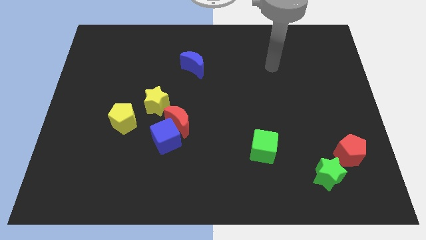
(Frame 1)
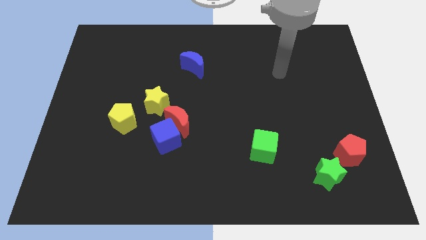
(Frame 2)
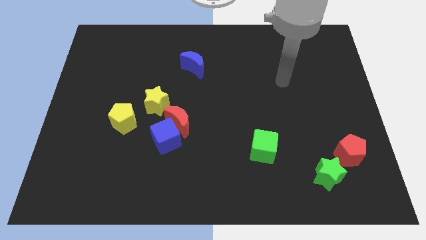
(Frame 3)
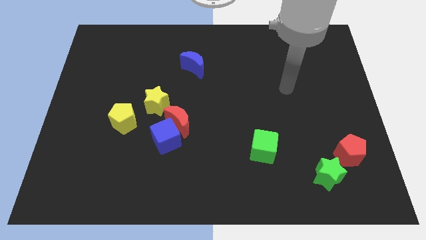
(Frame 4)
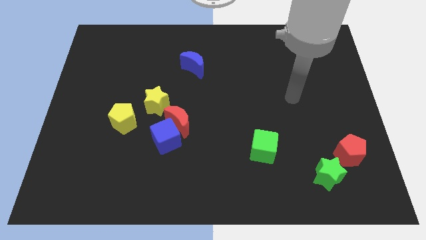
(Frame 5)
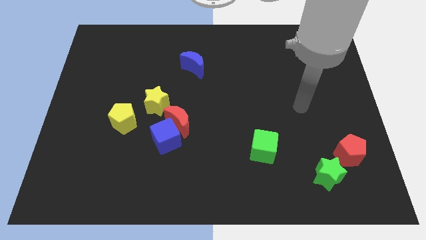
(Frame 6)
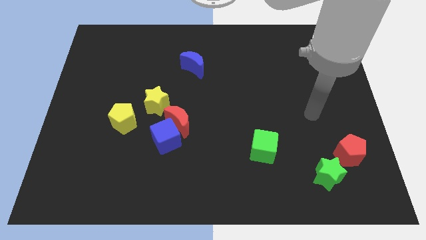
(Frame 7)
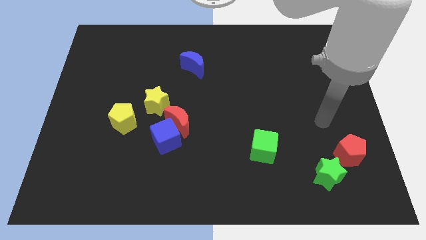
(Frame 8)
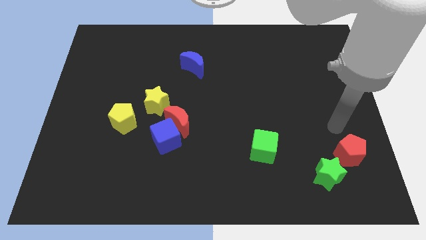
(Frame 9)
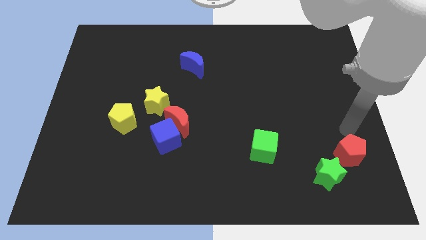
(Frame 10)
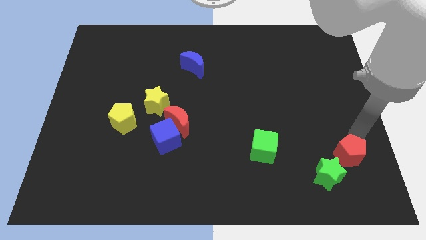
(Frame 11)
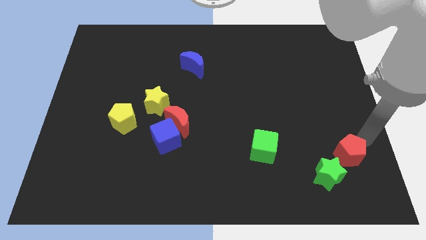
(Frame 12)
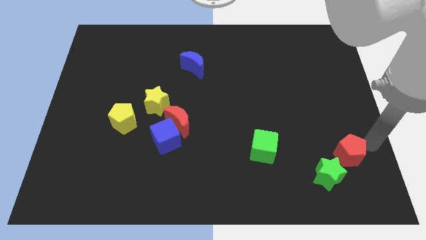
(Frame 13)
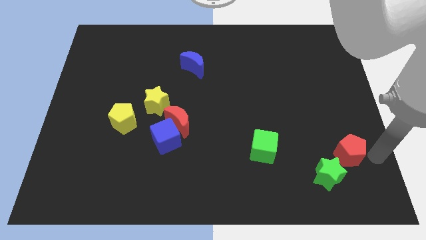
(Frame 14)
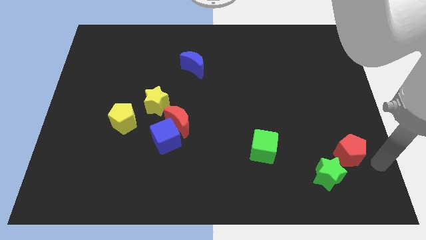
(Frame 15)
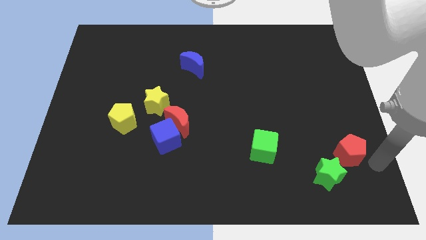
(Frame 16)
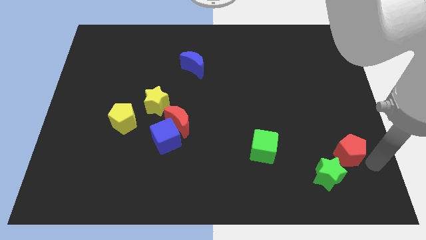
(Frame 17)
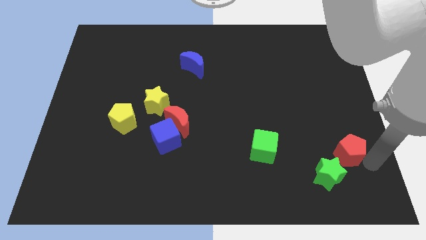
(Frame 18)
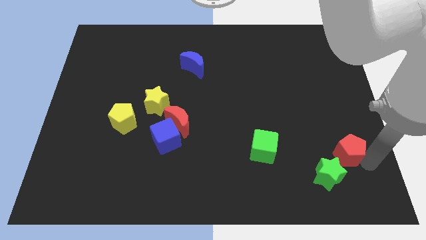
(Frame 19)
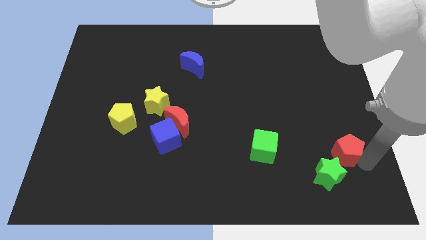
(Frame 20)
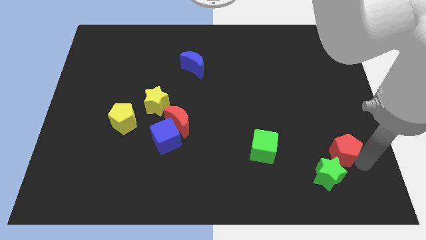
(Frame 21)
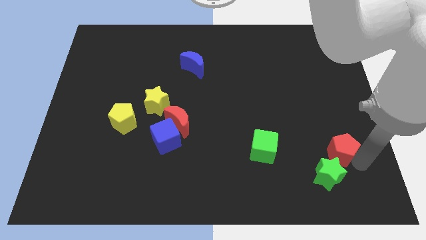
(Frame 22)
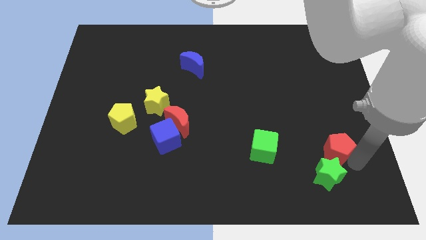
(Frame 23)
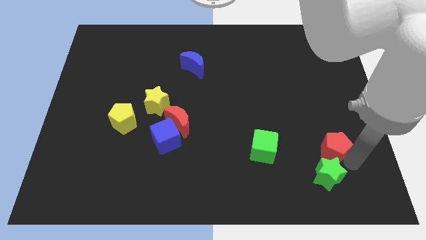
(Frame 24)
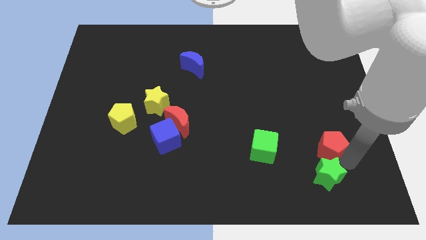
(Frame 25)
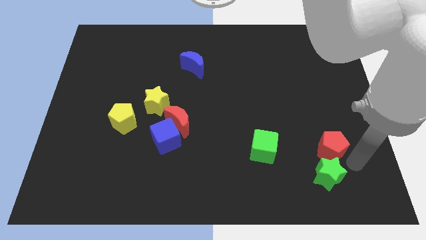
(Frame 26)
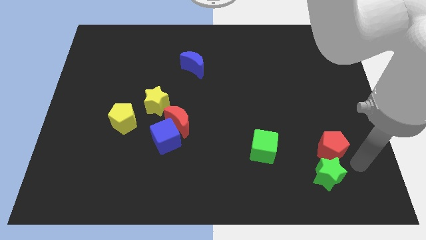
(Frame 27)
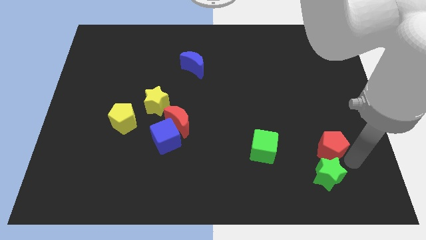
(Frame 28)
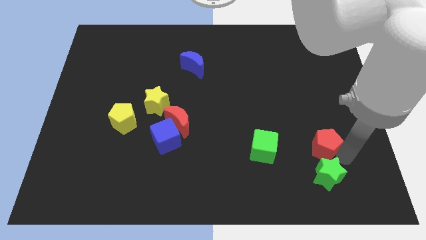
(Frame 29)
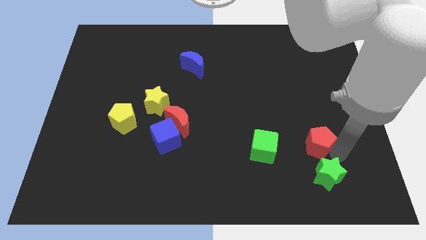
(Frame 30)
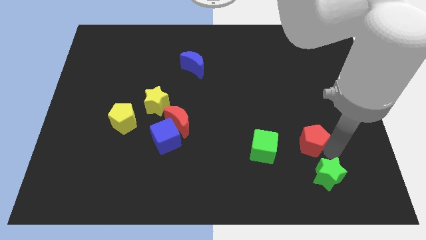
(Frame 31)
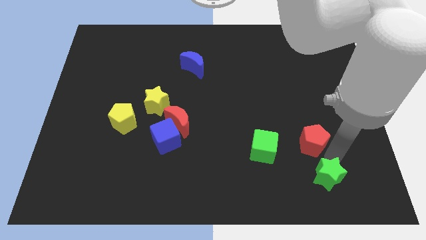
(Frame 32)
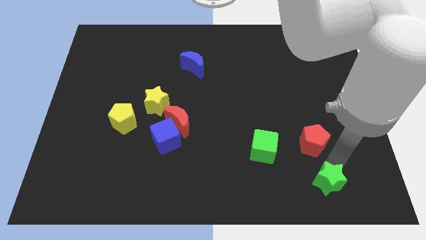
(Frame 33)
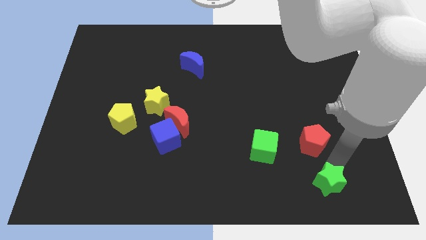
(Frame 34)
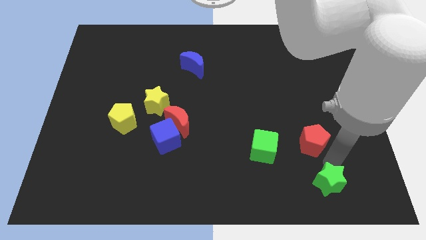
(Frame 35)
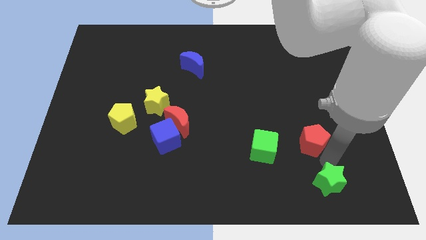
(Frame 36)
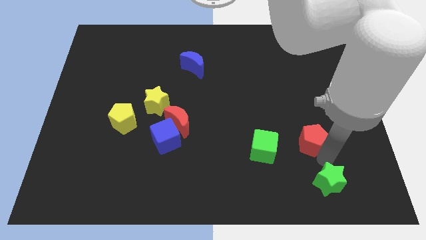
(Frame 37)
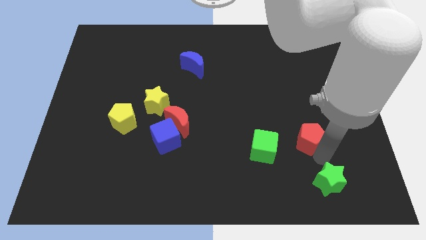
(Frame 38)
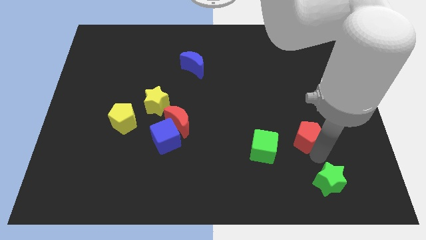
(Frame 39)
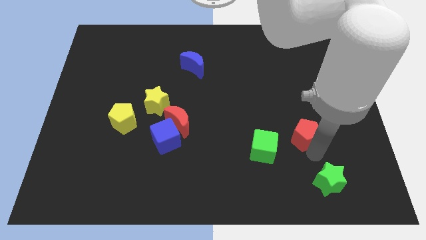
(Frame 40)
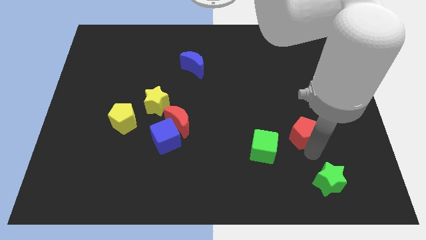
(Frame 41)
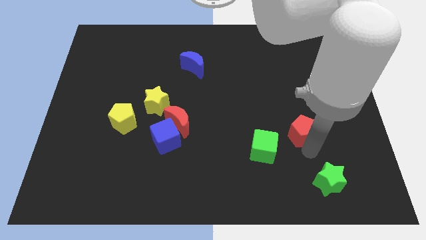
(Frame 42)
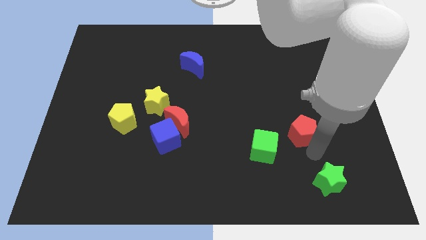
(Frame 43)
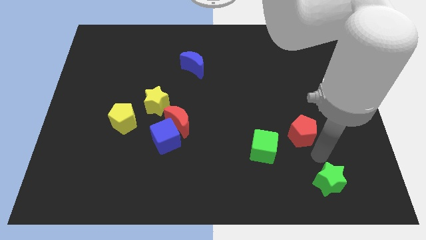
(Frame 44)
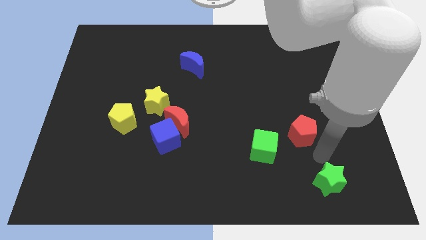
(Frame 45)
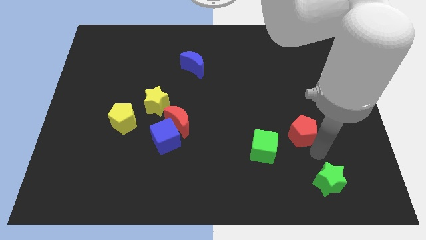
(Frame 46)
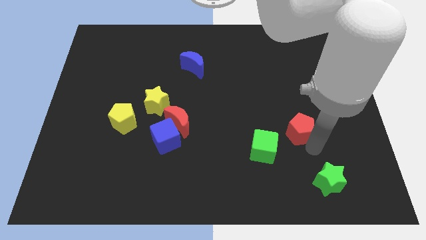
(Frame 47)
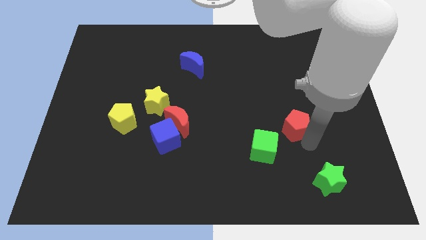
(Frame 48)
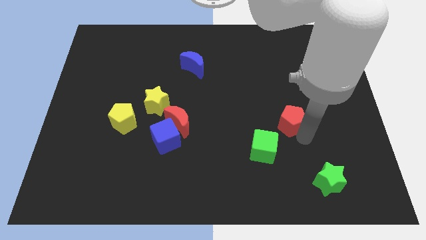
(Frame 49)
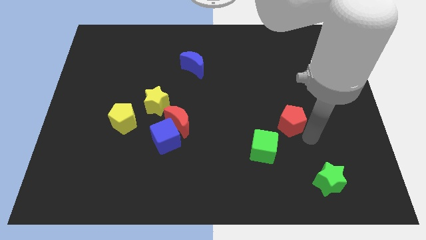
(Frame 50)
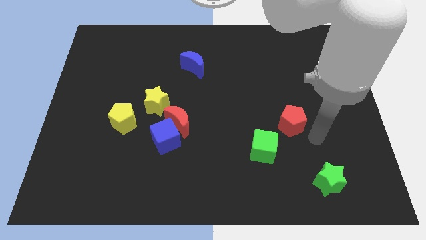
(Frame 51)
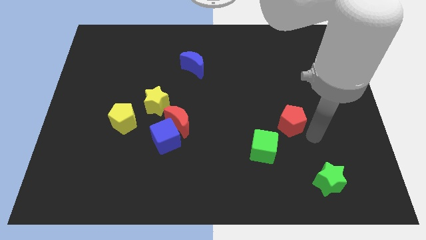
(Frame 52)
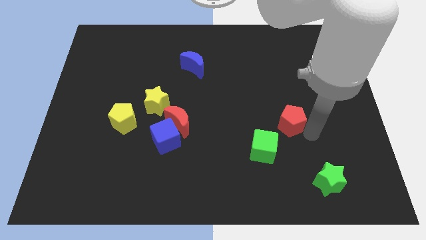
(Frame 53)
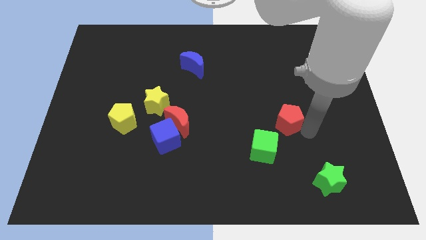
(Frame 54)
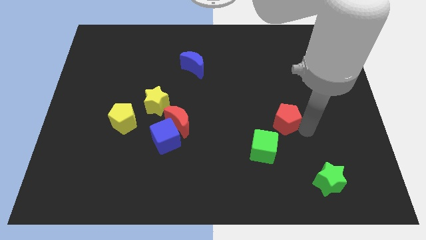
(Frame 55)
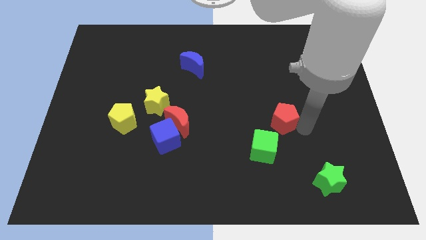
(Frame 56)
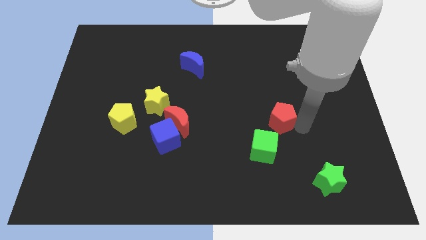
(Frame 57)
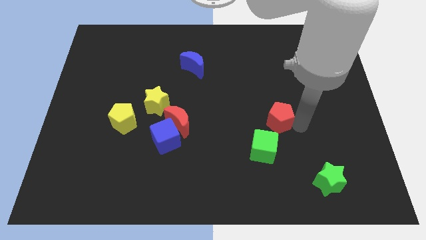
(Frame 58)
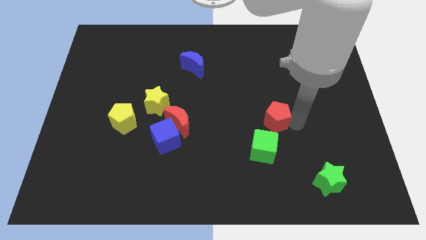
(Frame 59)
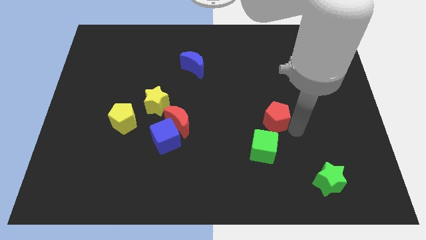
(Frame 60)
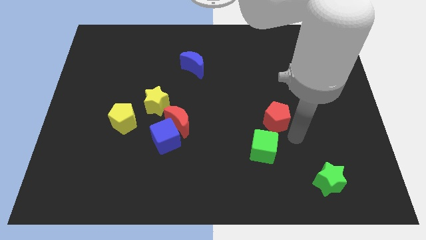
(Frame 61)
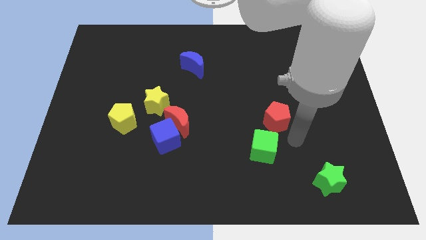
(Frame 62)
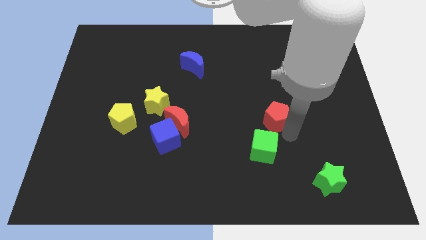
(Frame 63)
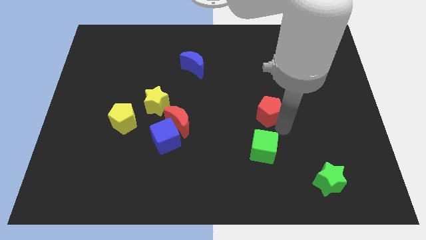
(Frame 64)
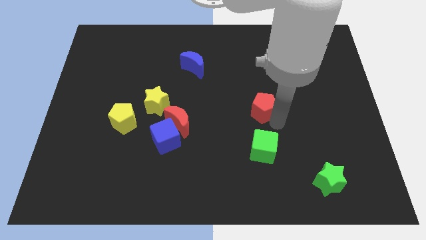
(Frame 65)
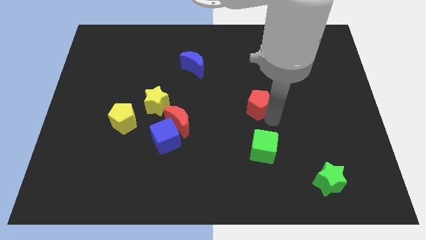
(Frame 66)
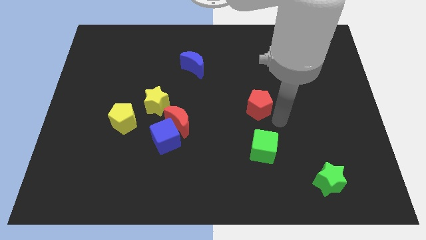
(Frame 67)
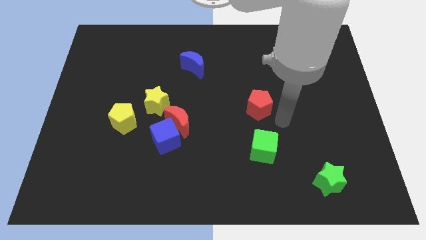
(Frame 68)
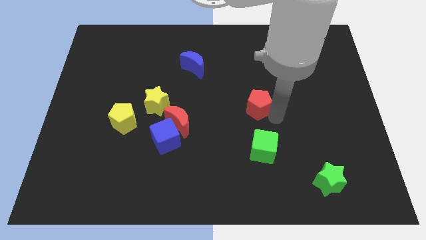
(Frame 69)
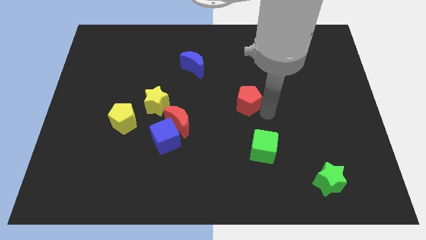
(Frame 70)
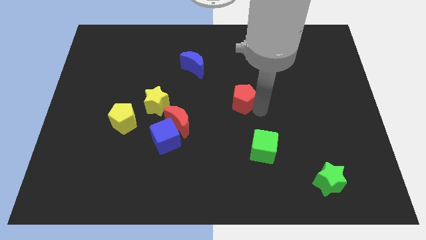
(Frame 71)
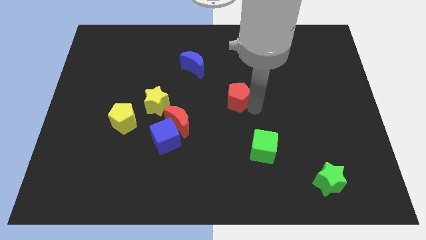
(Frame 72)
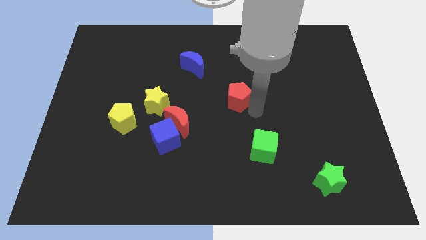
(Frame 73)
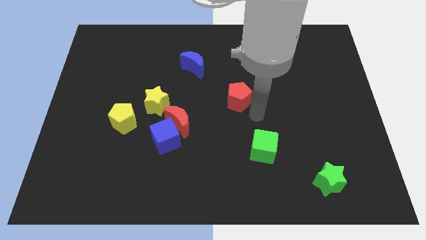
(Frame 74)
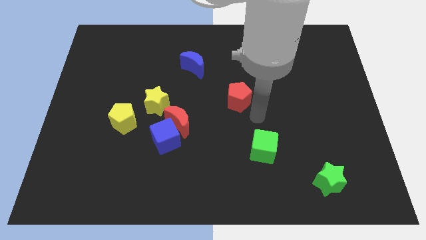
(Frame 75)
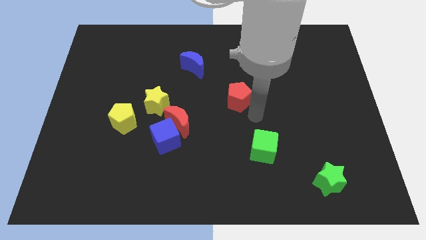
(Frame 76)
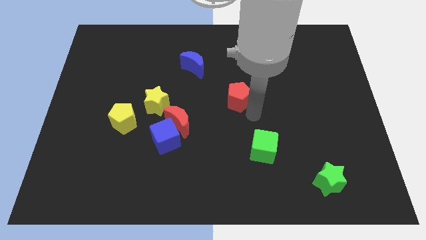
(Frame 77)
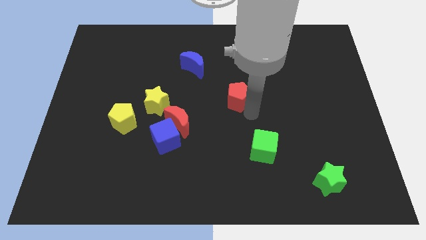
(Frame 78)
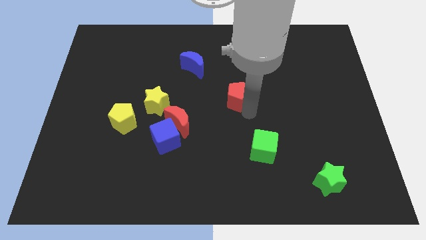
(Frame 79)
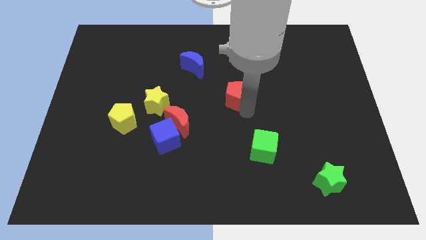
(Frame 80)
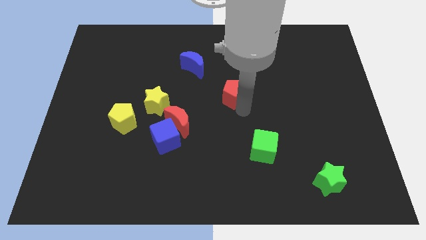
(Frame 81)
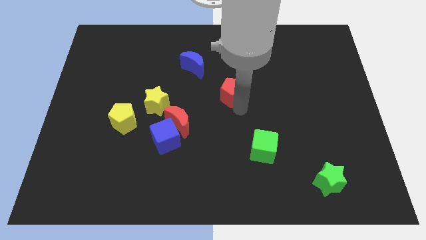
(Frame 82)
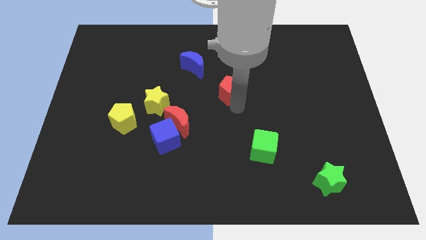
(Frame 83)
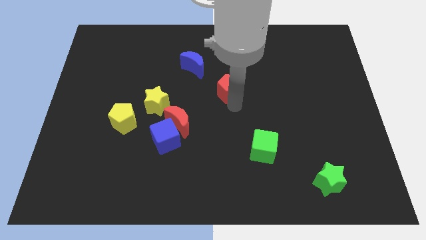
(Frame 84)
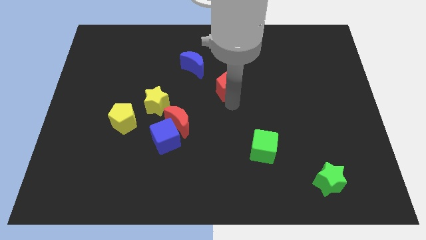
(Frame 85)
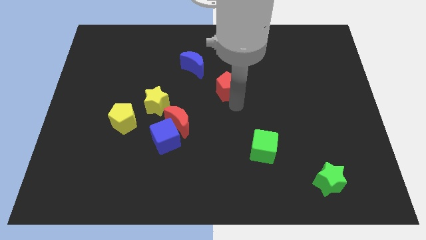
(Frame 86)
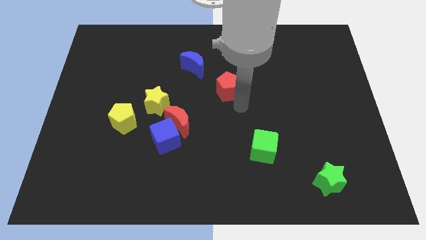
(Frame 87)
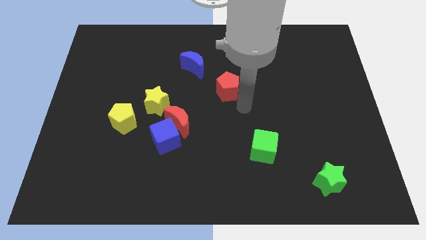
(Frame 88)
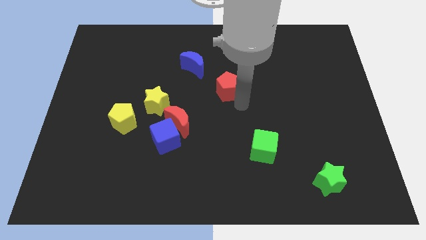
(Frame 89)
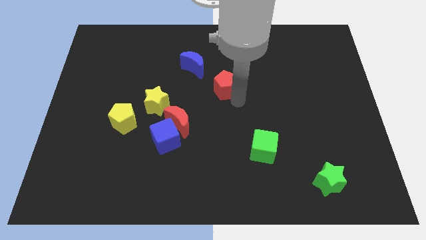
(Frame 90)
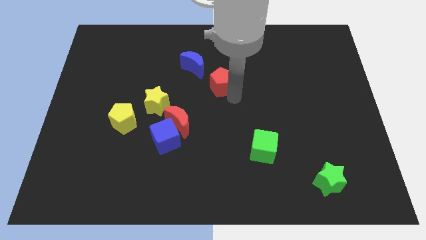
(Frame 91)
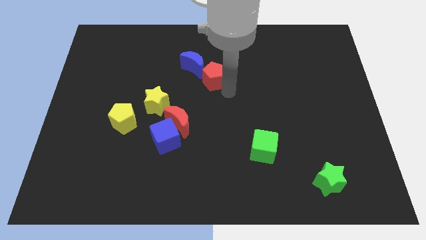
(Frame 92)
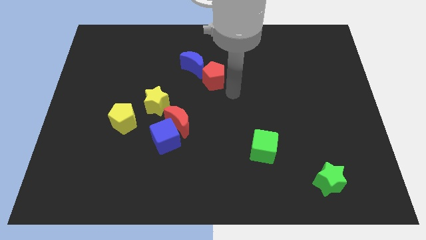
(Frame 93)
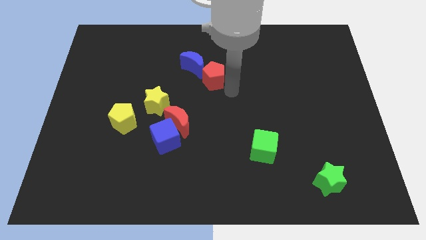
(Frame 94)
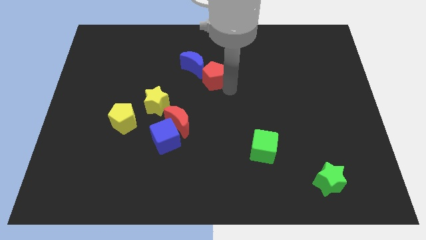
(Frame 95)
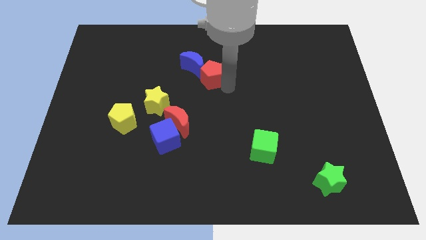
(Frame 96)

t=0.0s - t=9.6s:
put the red pentagon towards the blue moon
